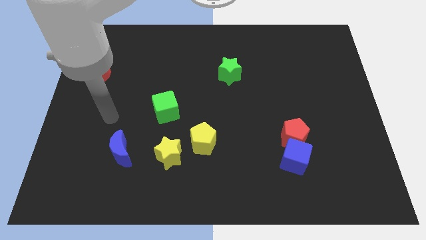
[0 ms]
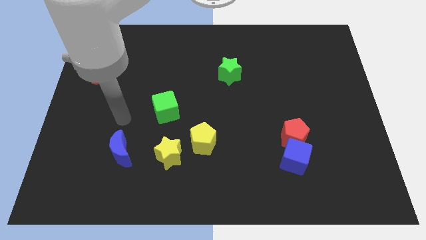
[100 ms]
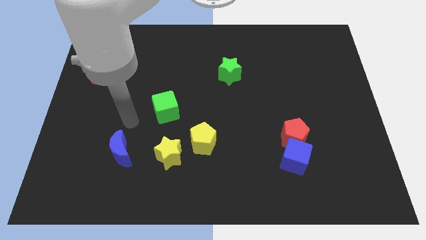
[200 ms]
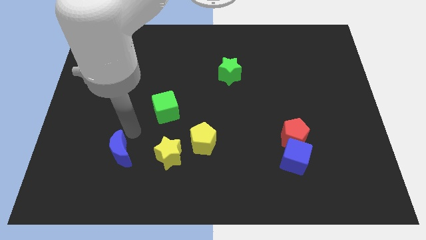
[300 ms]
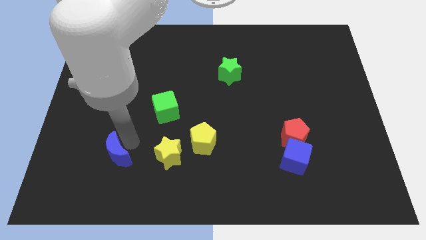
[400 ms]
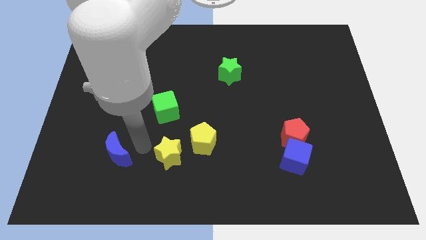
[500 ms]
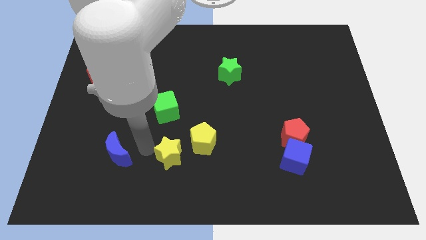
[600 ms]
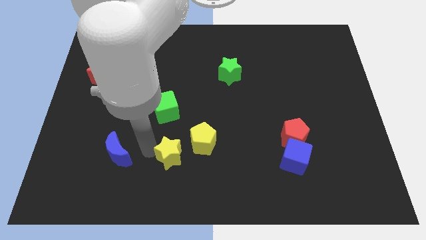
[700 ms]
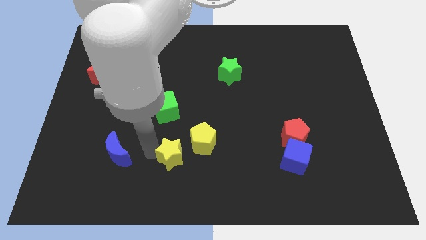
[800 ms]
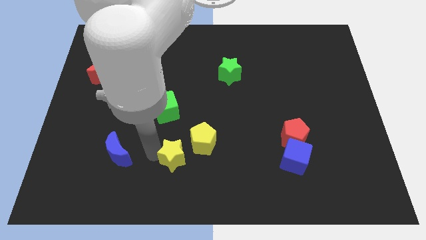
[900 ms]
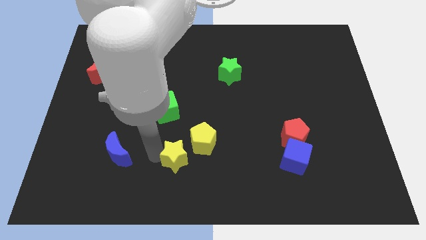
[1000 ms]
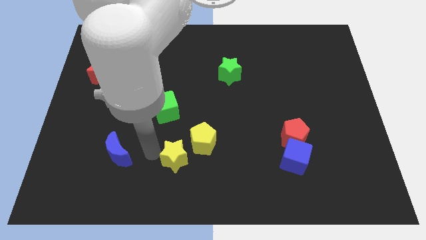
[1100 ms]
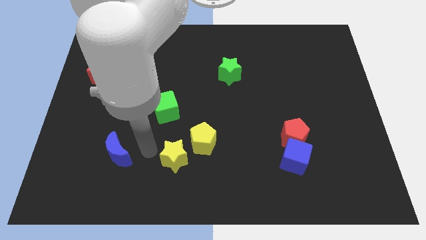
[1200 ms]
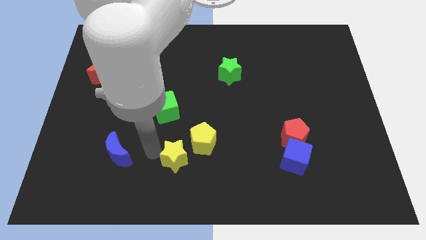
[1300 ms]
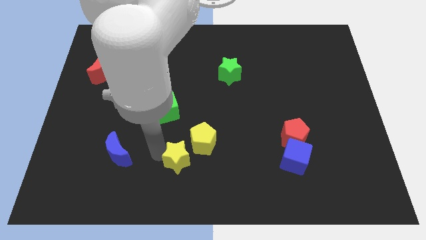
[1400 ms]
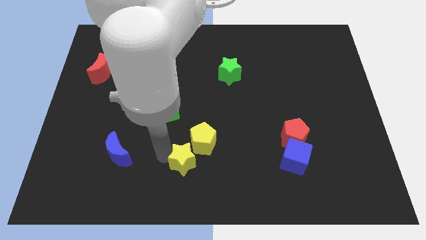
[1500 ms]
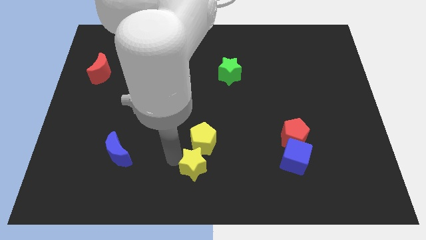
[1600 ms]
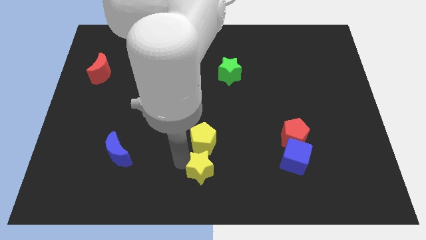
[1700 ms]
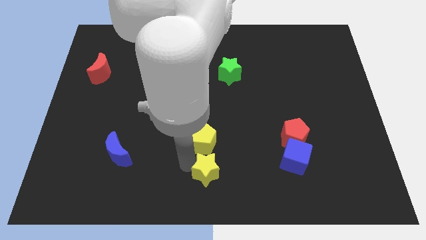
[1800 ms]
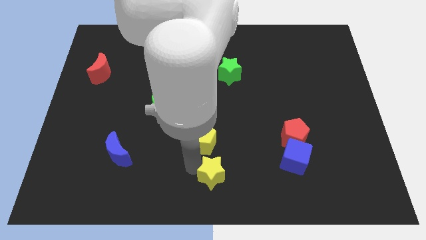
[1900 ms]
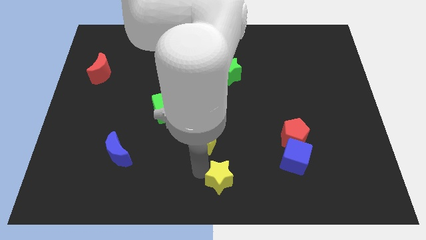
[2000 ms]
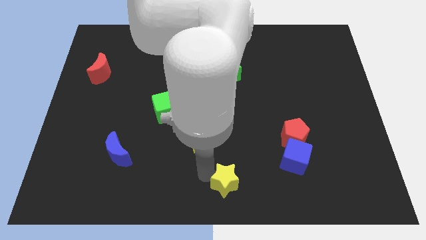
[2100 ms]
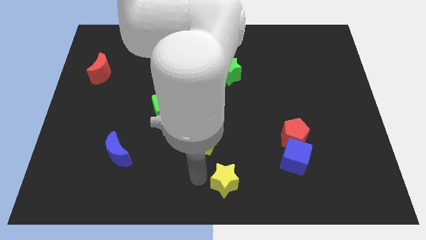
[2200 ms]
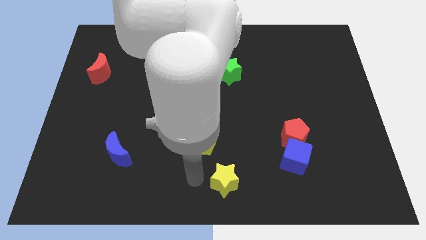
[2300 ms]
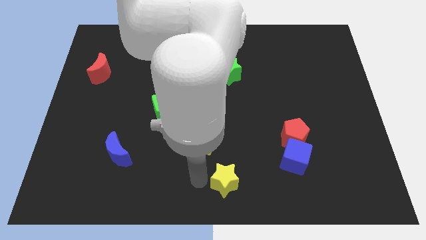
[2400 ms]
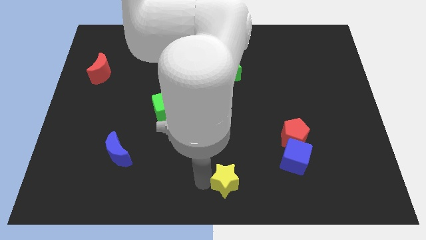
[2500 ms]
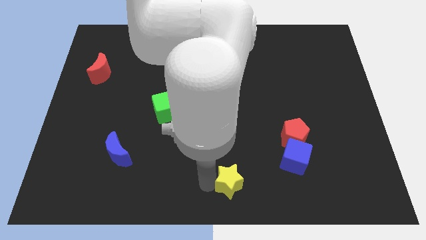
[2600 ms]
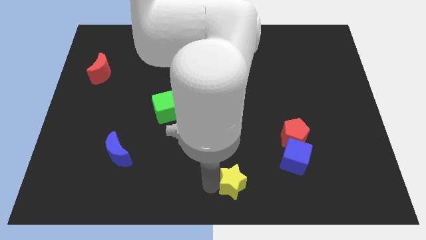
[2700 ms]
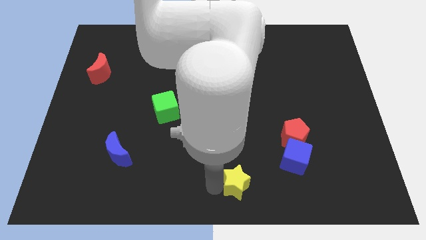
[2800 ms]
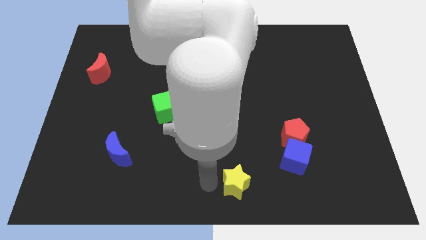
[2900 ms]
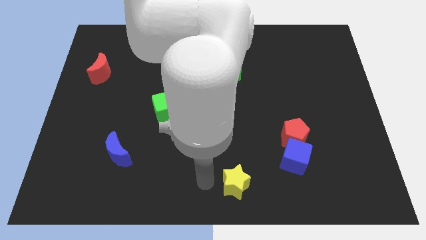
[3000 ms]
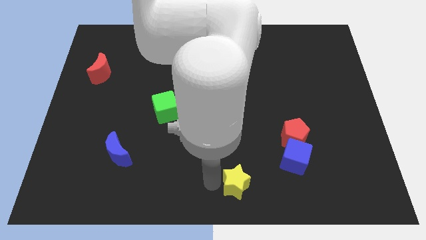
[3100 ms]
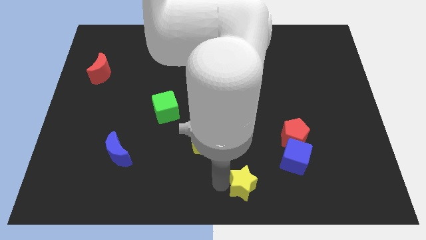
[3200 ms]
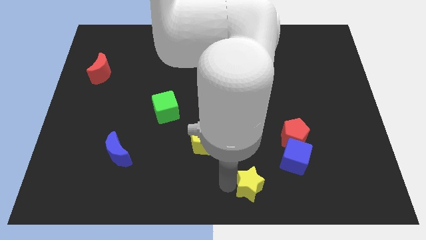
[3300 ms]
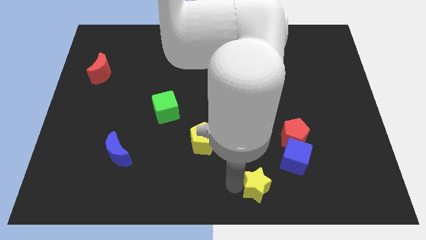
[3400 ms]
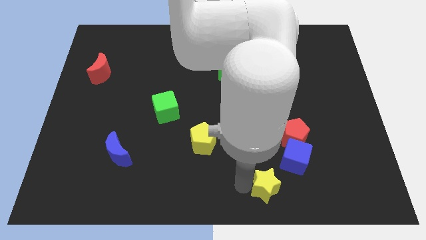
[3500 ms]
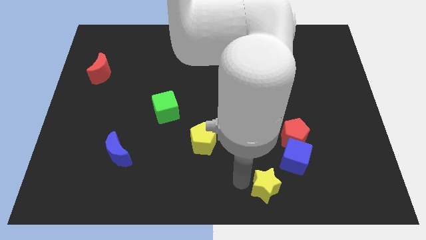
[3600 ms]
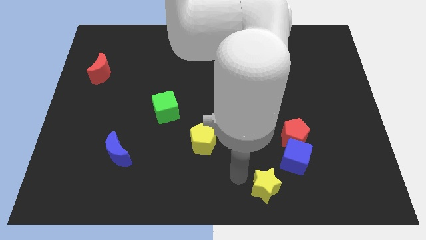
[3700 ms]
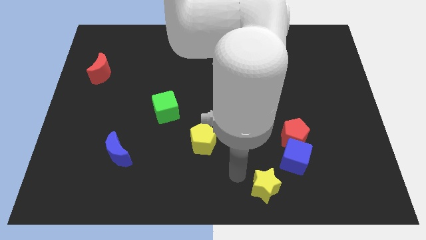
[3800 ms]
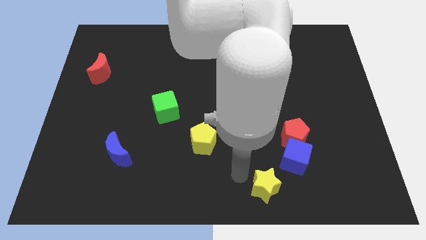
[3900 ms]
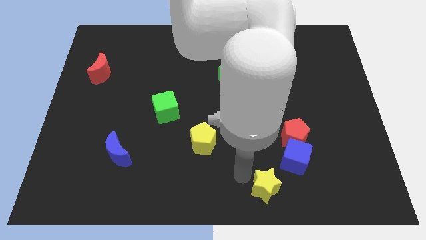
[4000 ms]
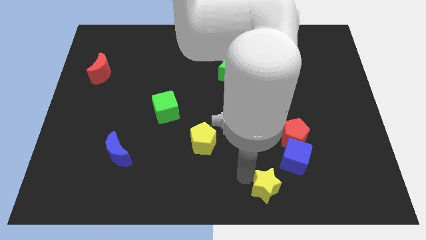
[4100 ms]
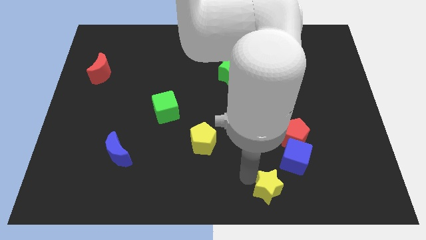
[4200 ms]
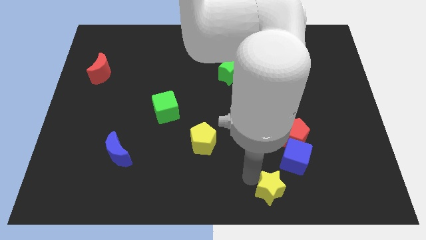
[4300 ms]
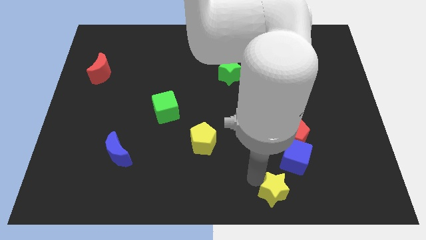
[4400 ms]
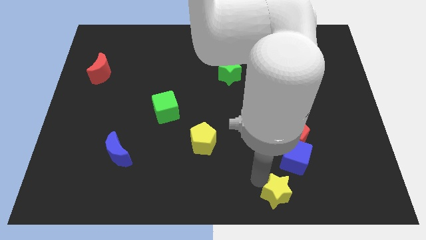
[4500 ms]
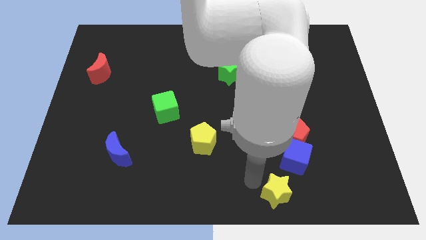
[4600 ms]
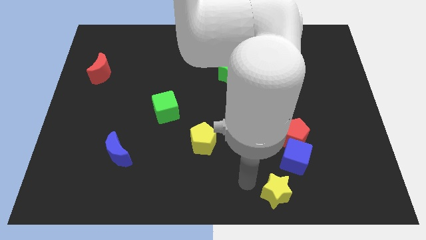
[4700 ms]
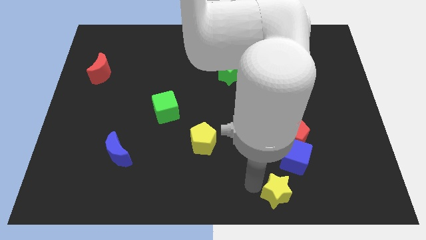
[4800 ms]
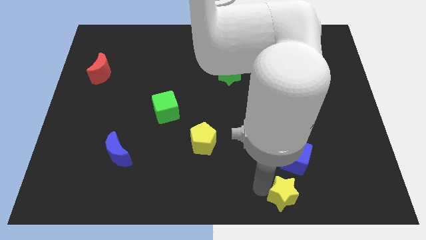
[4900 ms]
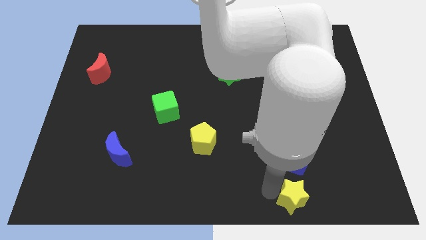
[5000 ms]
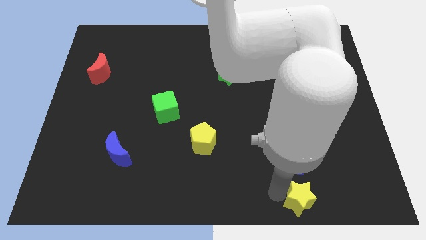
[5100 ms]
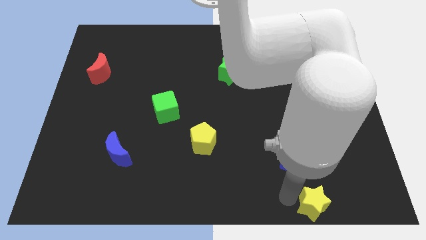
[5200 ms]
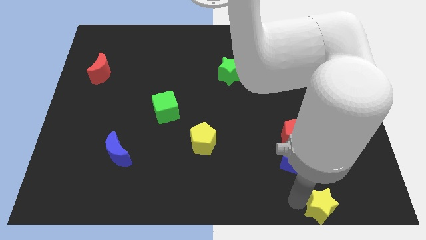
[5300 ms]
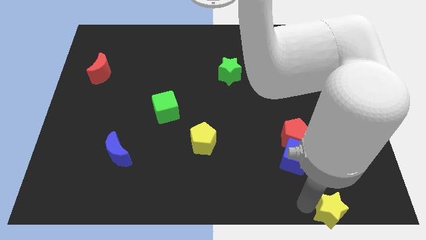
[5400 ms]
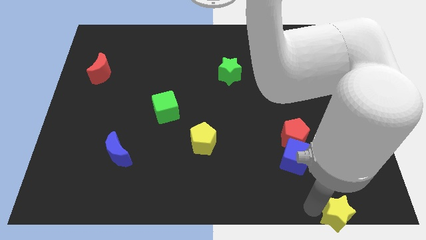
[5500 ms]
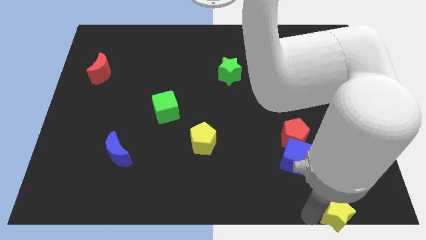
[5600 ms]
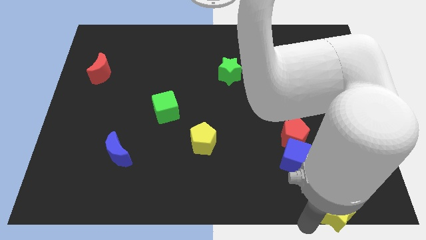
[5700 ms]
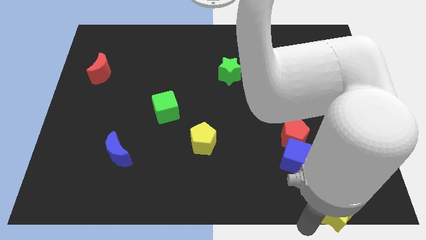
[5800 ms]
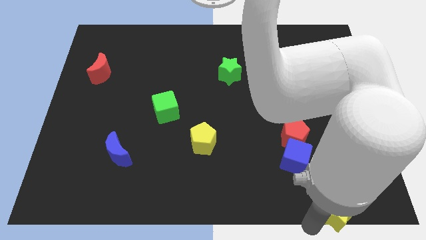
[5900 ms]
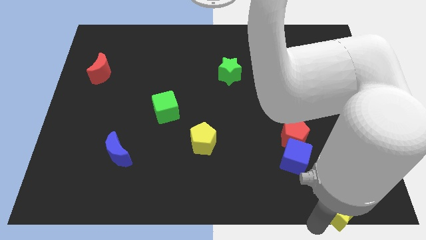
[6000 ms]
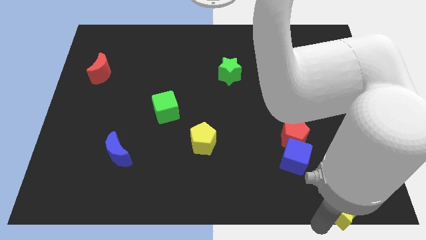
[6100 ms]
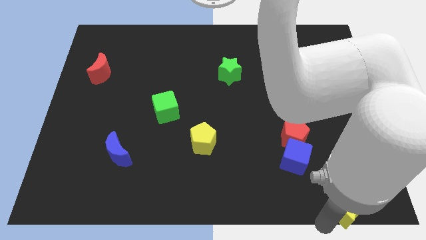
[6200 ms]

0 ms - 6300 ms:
slide the yellow star to the bottom right of the board
